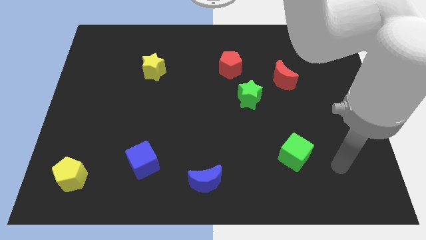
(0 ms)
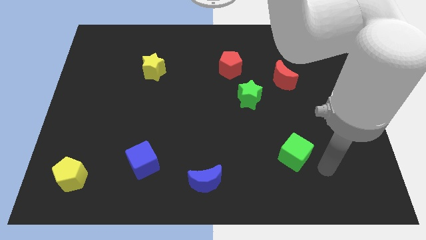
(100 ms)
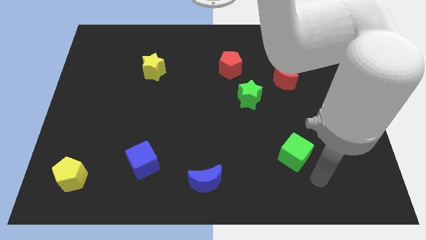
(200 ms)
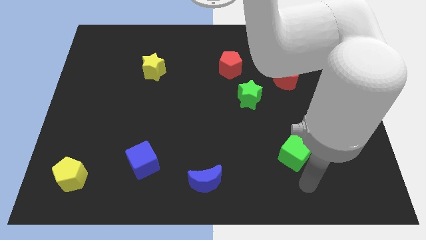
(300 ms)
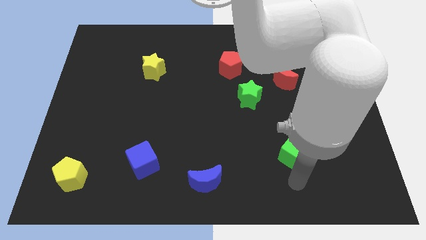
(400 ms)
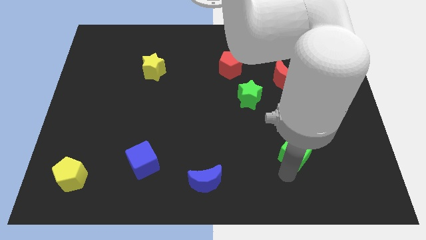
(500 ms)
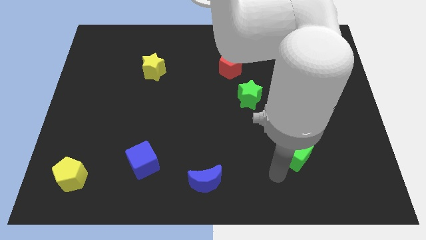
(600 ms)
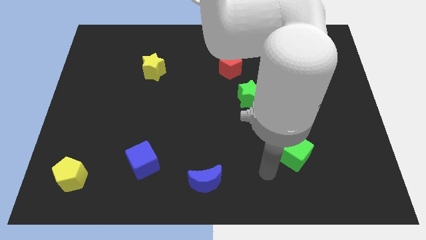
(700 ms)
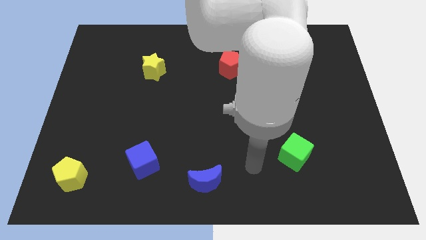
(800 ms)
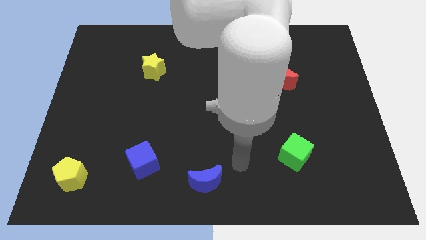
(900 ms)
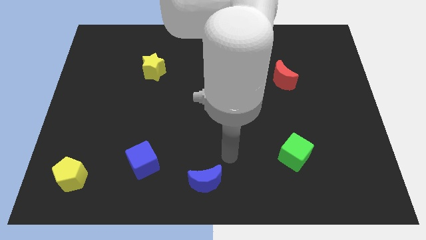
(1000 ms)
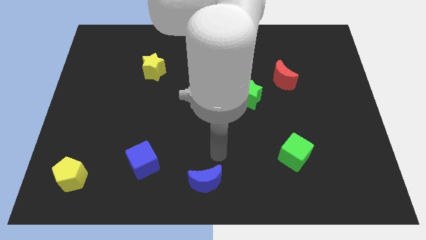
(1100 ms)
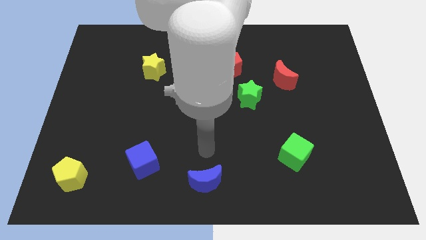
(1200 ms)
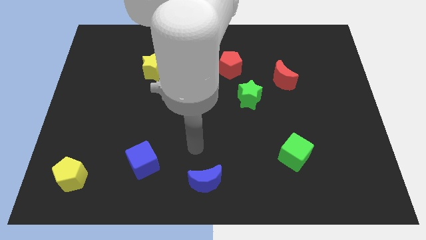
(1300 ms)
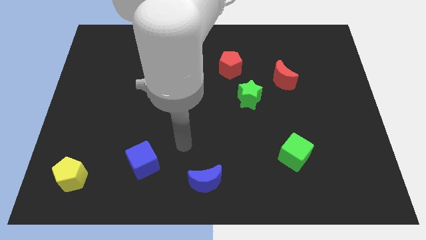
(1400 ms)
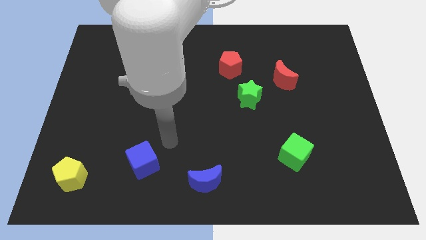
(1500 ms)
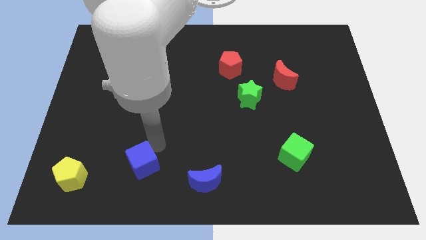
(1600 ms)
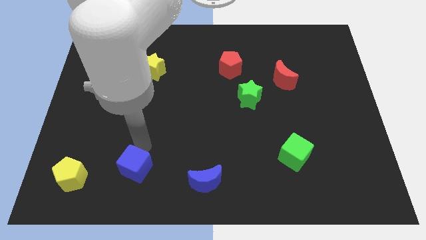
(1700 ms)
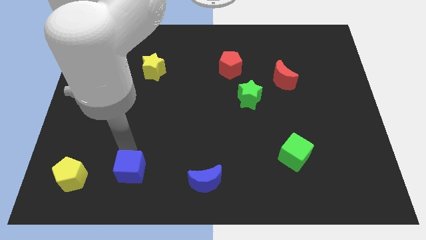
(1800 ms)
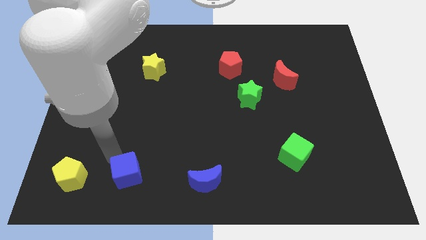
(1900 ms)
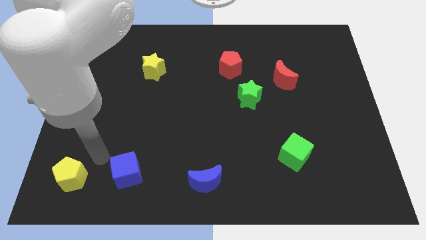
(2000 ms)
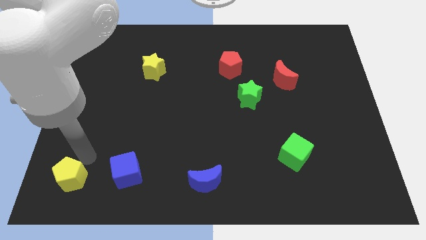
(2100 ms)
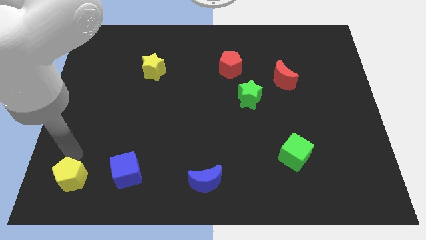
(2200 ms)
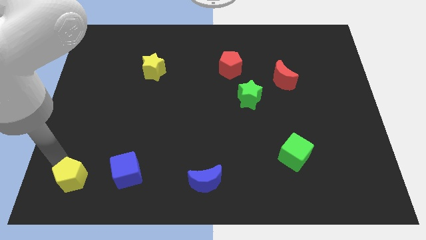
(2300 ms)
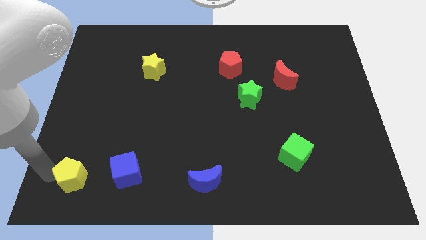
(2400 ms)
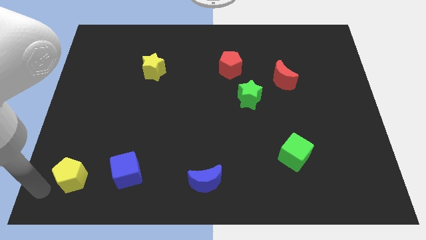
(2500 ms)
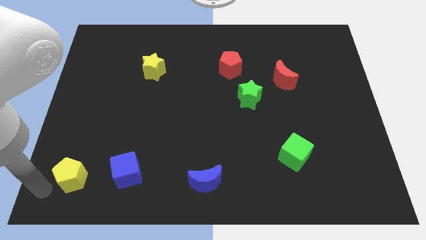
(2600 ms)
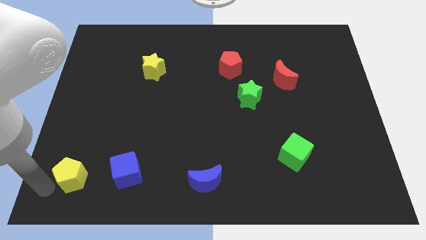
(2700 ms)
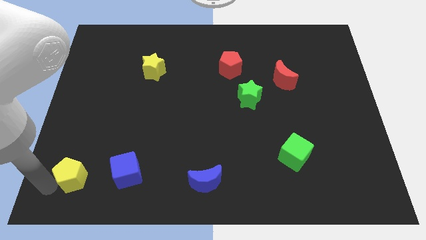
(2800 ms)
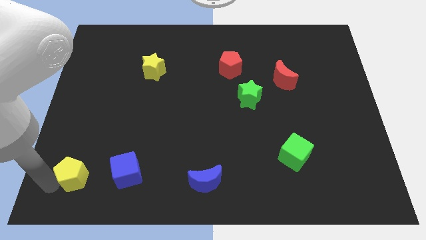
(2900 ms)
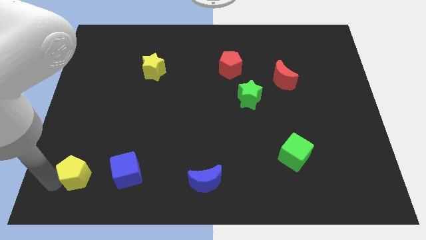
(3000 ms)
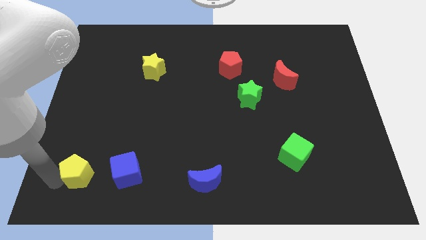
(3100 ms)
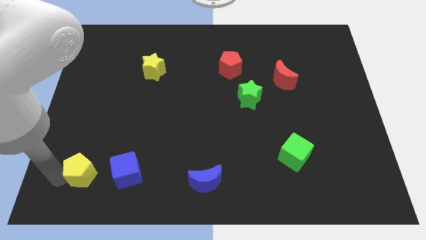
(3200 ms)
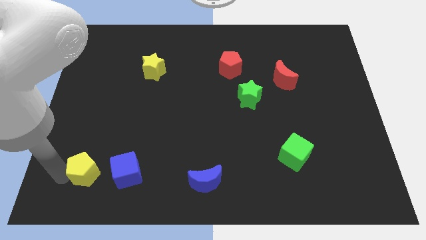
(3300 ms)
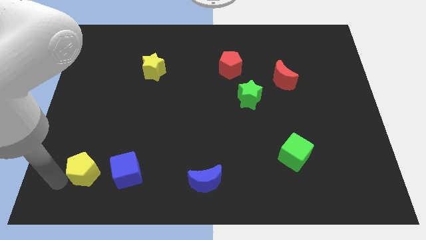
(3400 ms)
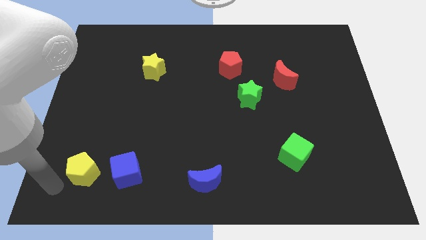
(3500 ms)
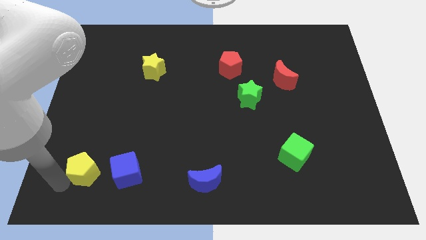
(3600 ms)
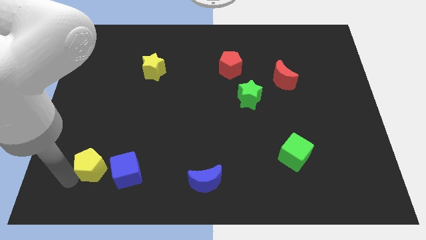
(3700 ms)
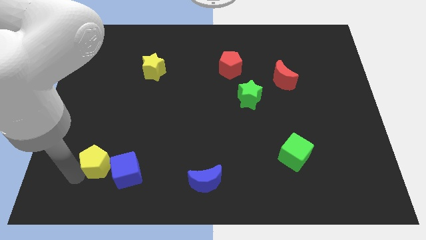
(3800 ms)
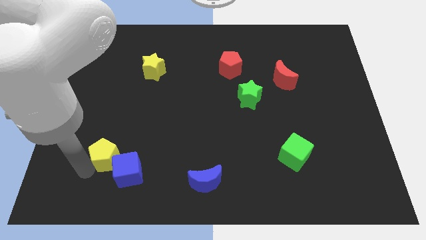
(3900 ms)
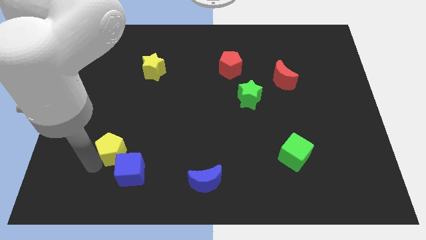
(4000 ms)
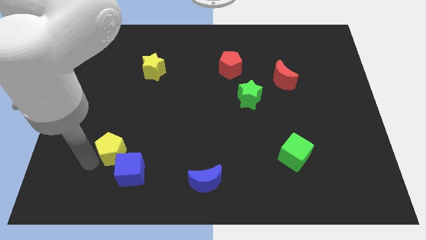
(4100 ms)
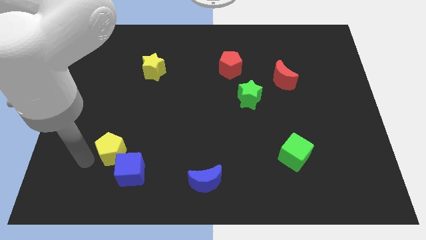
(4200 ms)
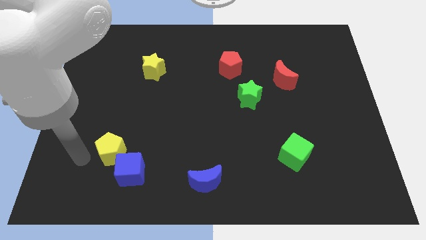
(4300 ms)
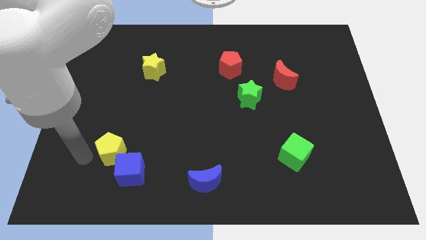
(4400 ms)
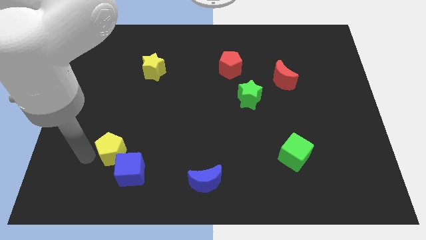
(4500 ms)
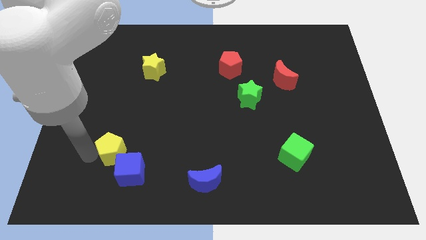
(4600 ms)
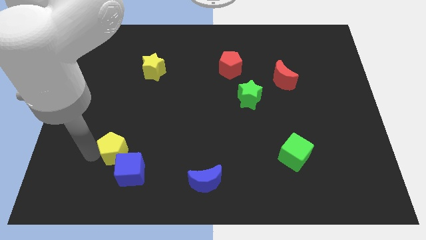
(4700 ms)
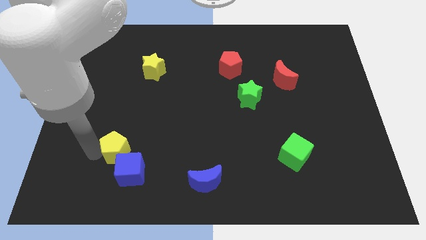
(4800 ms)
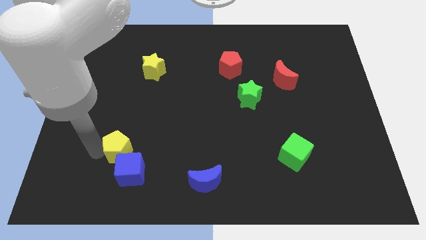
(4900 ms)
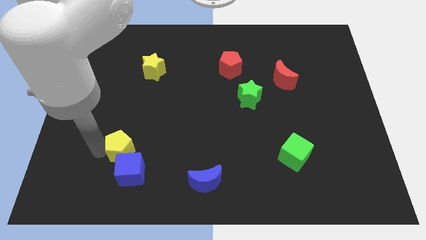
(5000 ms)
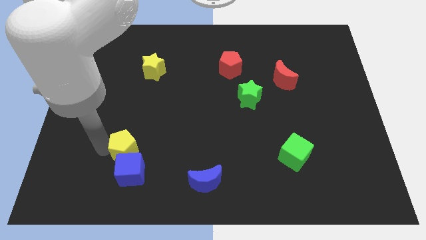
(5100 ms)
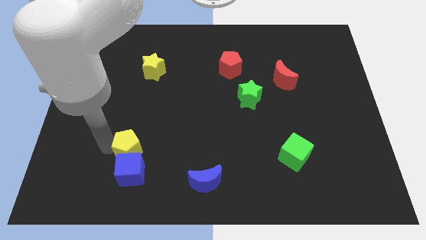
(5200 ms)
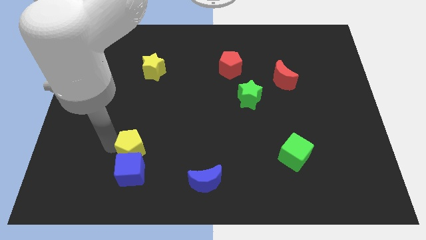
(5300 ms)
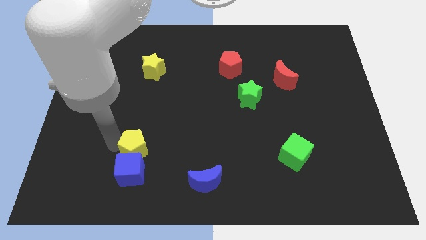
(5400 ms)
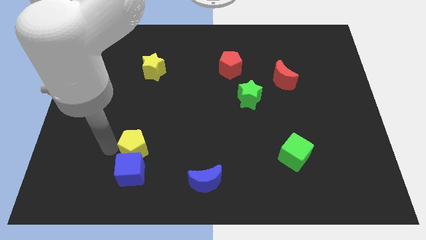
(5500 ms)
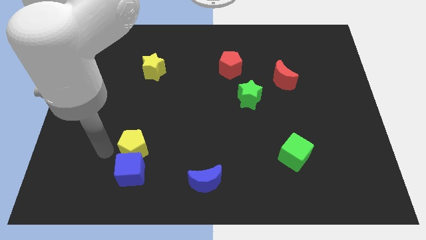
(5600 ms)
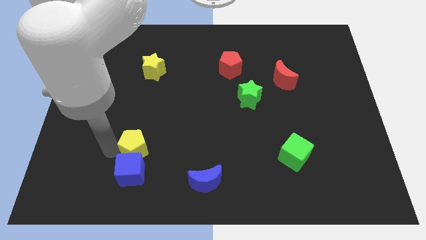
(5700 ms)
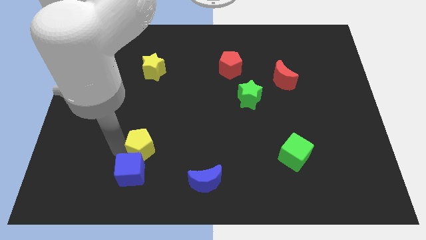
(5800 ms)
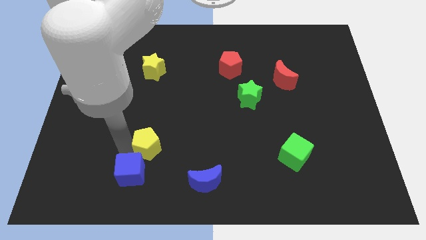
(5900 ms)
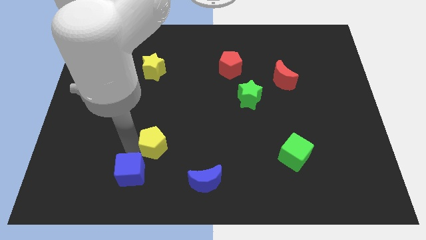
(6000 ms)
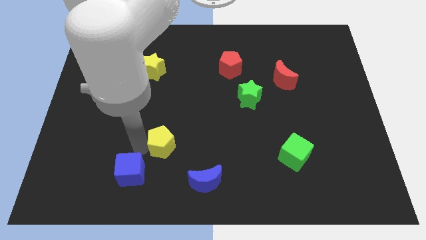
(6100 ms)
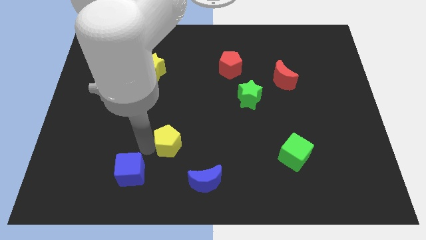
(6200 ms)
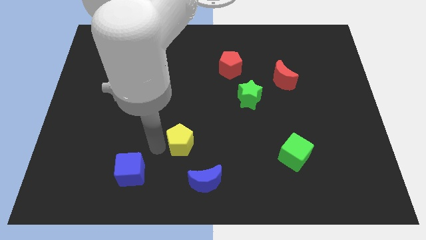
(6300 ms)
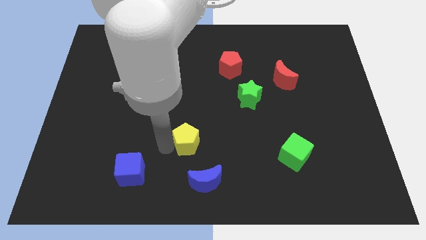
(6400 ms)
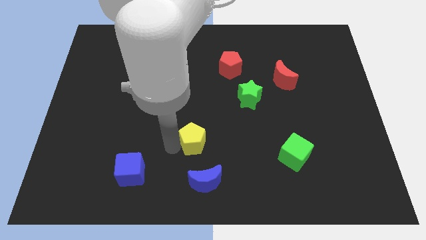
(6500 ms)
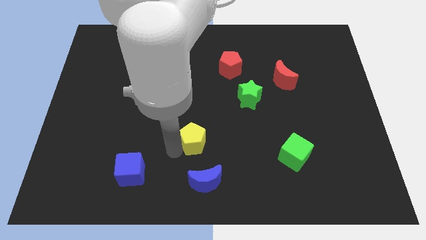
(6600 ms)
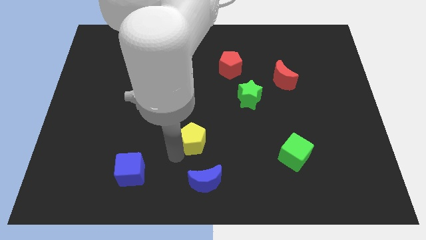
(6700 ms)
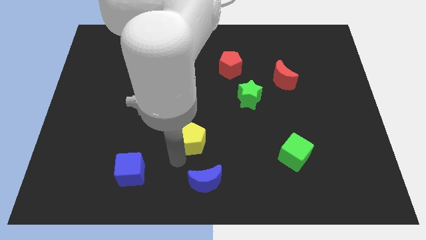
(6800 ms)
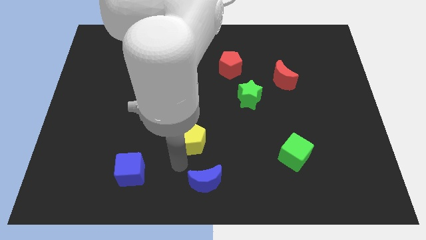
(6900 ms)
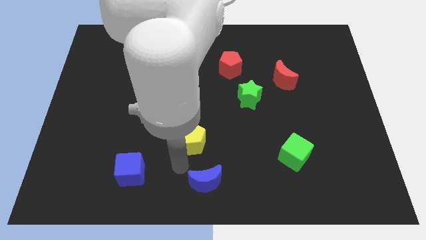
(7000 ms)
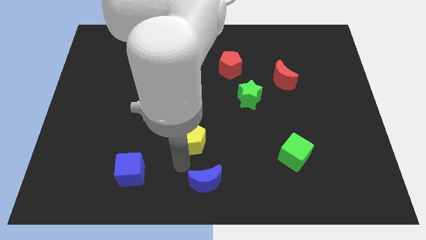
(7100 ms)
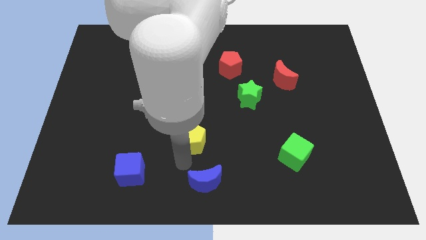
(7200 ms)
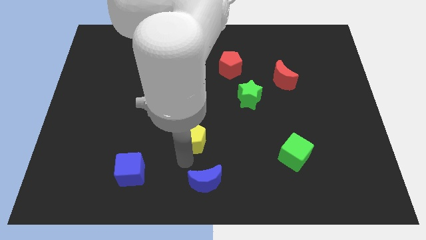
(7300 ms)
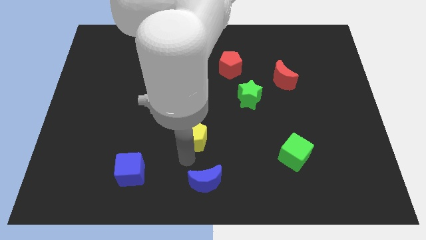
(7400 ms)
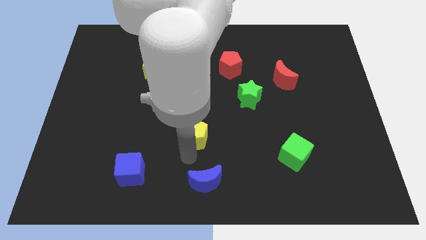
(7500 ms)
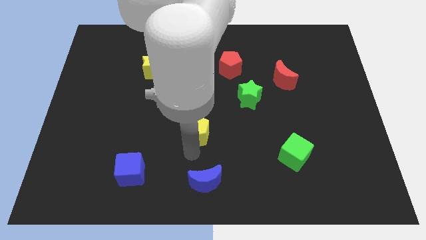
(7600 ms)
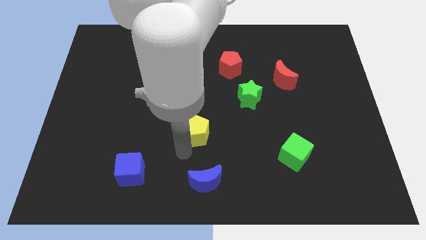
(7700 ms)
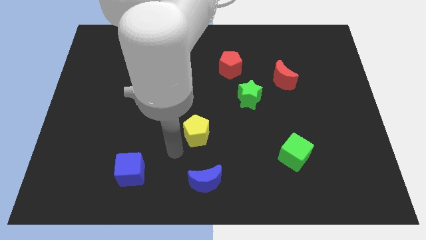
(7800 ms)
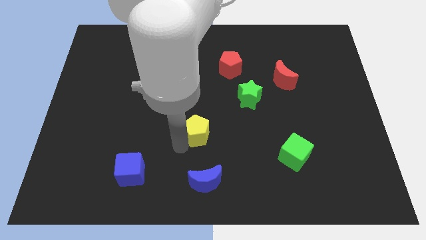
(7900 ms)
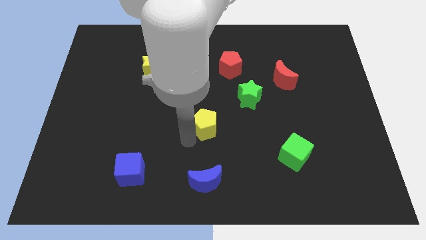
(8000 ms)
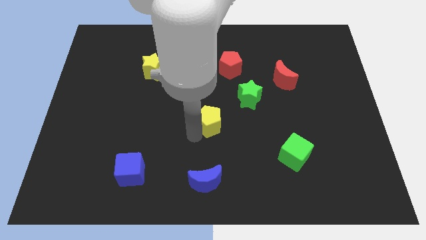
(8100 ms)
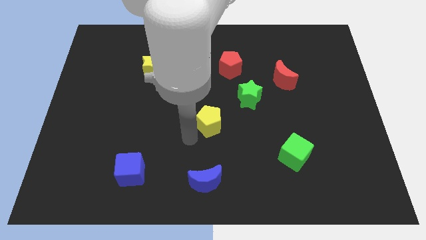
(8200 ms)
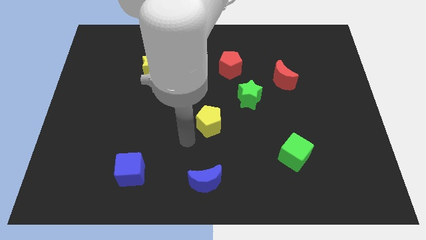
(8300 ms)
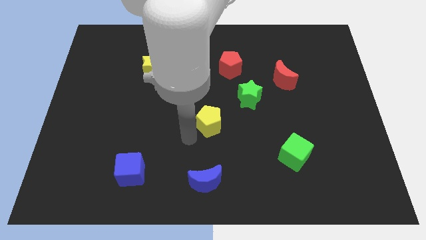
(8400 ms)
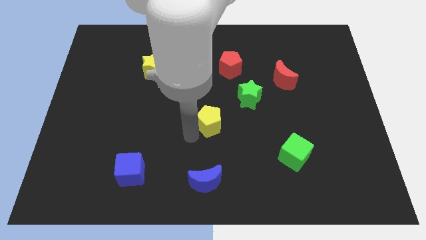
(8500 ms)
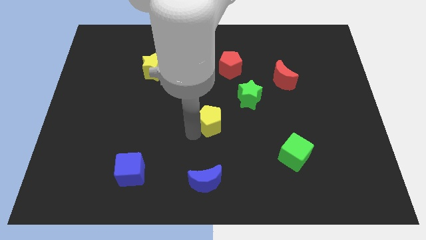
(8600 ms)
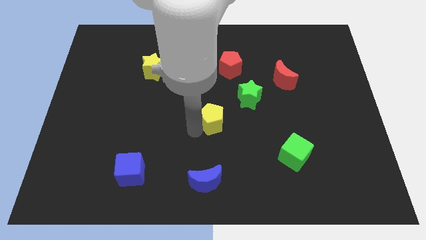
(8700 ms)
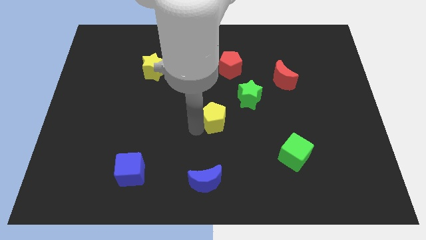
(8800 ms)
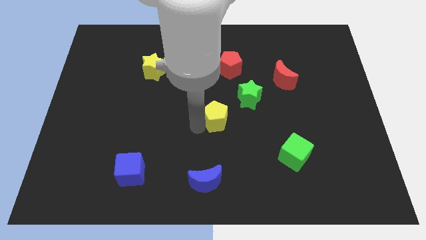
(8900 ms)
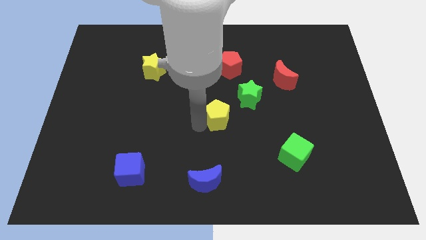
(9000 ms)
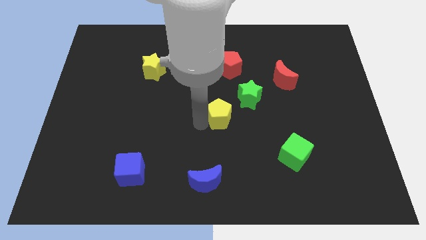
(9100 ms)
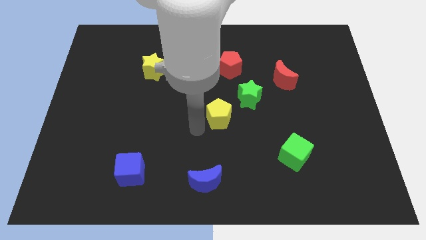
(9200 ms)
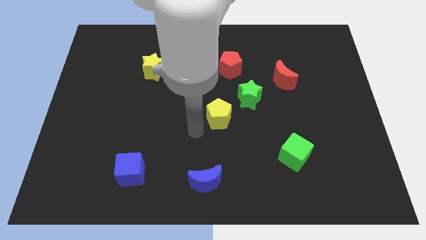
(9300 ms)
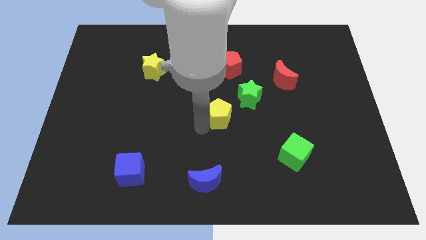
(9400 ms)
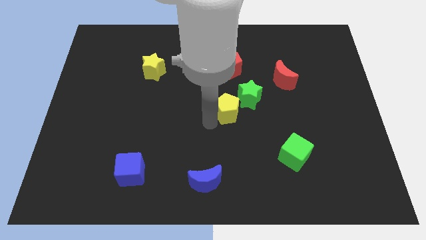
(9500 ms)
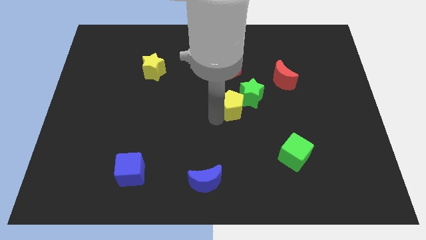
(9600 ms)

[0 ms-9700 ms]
push the yellow pentagon towards the green star
